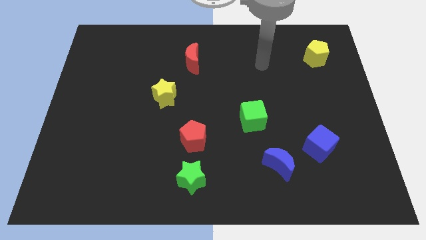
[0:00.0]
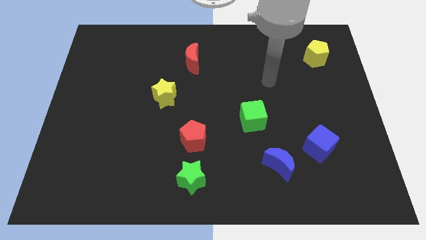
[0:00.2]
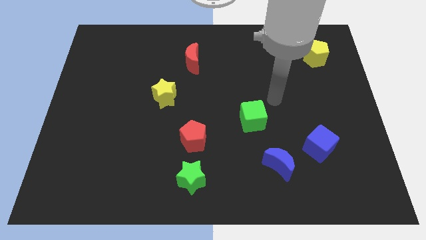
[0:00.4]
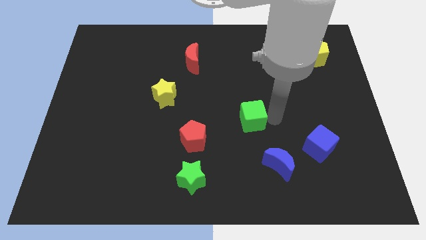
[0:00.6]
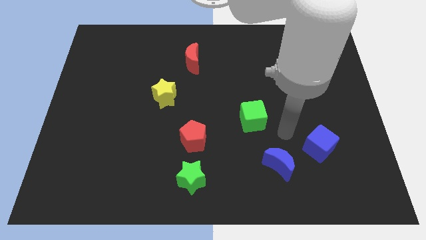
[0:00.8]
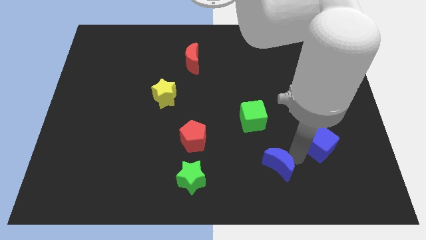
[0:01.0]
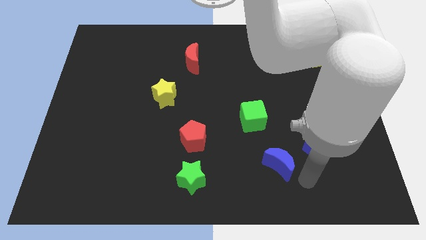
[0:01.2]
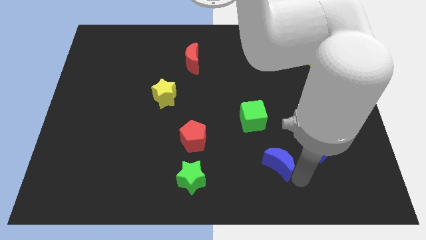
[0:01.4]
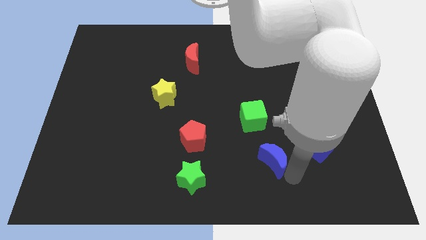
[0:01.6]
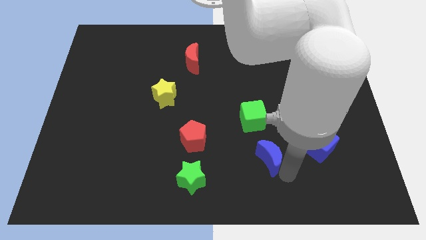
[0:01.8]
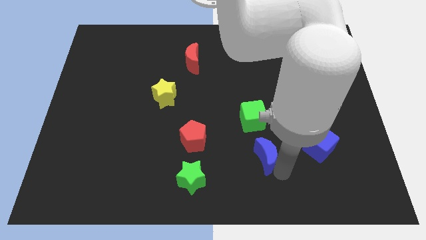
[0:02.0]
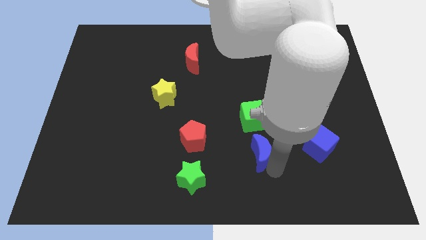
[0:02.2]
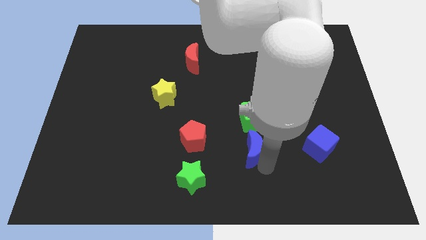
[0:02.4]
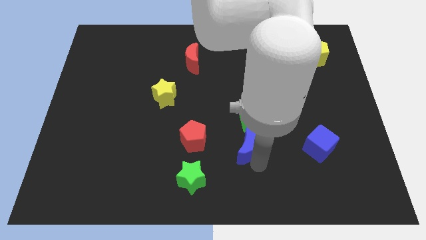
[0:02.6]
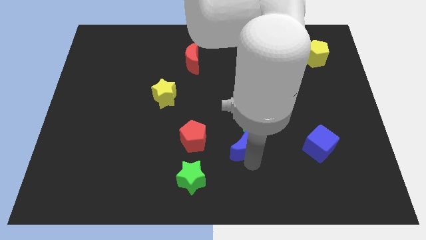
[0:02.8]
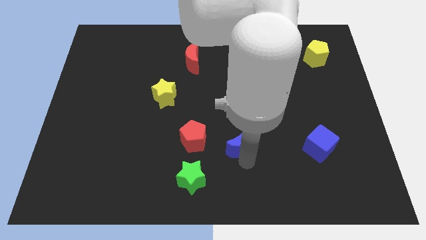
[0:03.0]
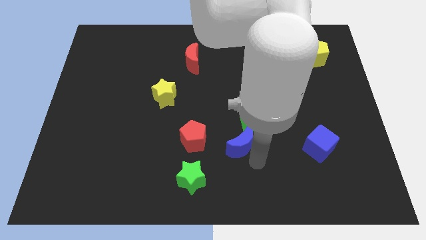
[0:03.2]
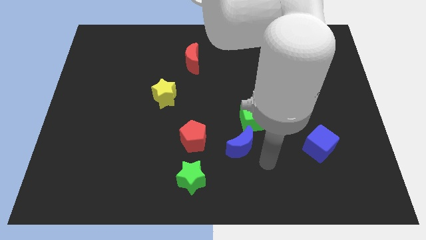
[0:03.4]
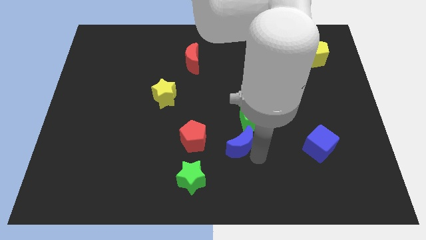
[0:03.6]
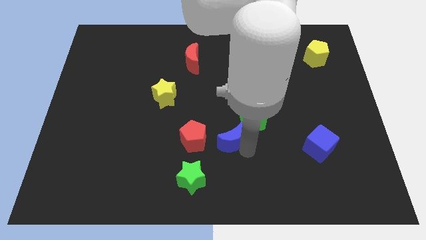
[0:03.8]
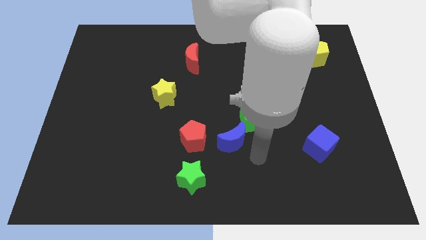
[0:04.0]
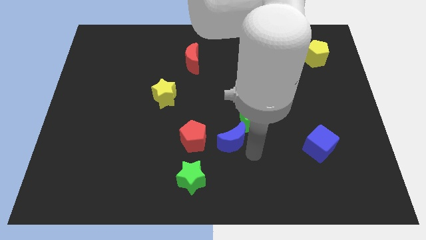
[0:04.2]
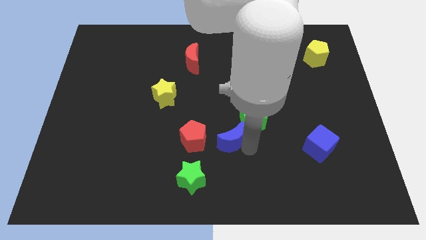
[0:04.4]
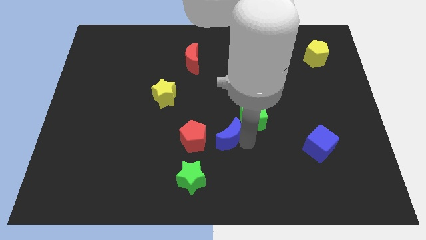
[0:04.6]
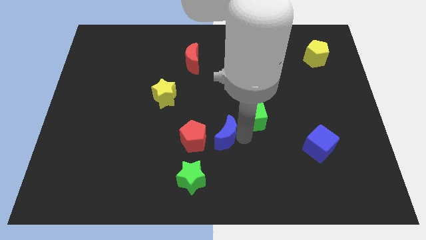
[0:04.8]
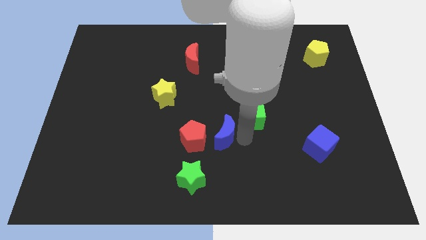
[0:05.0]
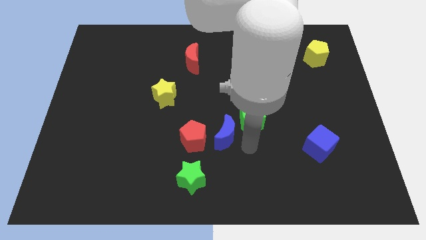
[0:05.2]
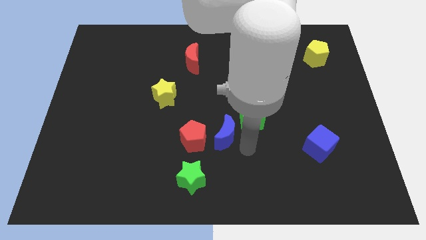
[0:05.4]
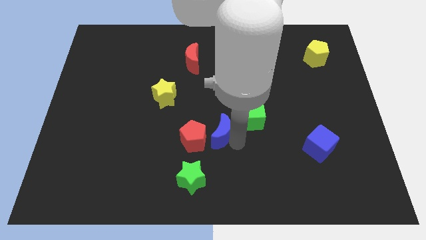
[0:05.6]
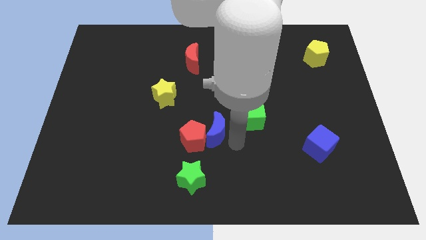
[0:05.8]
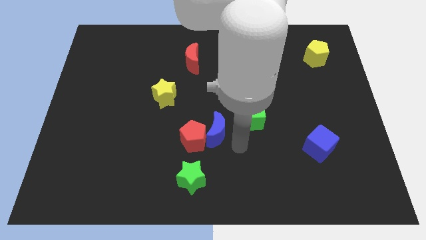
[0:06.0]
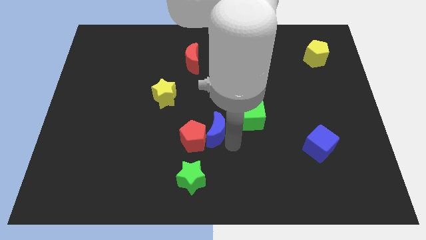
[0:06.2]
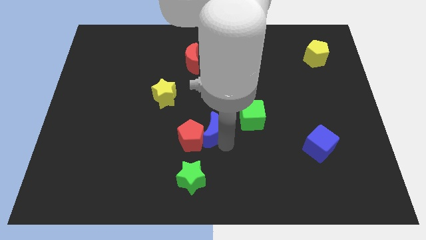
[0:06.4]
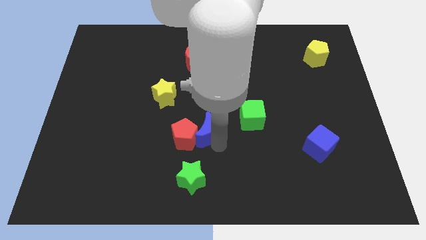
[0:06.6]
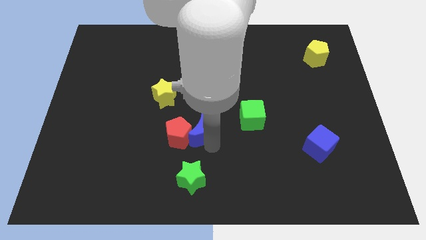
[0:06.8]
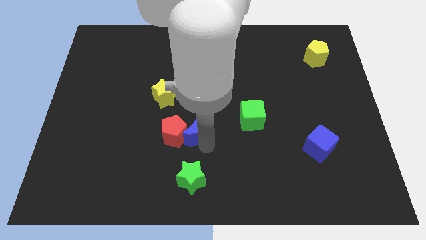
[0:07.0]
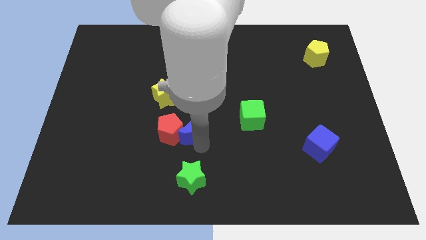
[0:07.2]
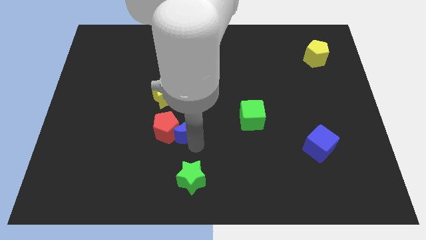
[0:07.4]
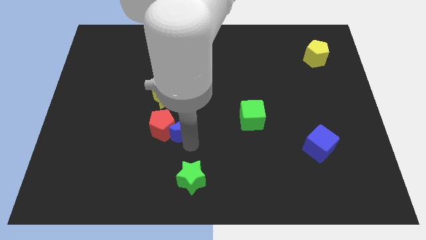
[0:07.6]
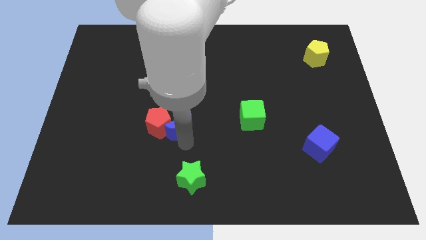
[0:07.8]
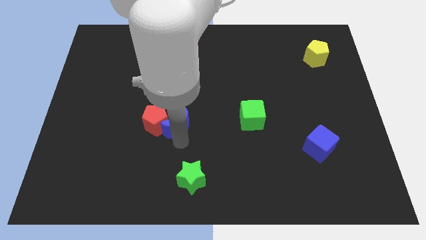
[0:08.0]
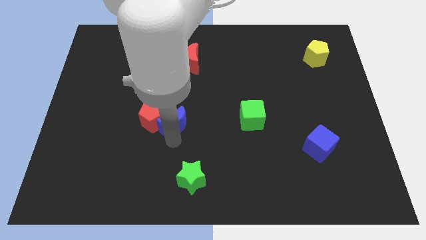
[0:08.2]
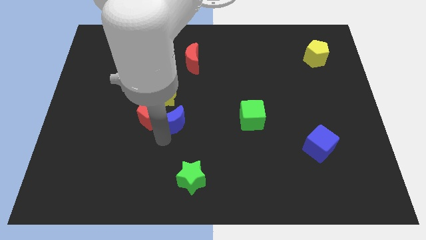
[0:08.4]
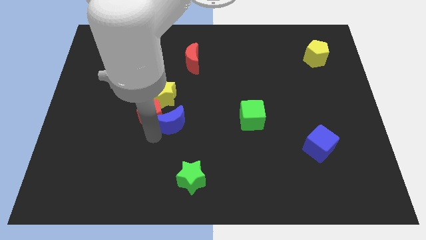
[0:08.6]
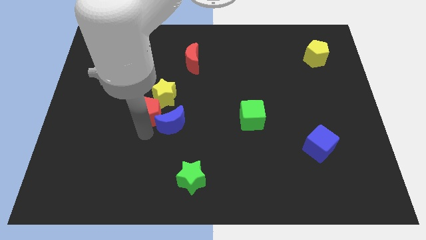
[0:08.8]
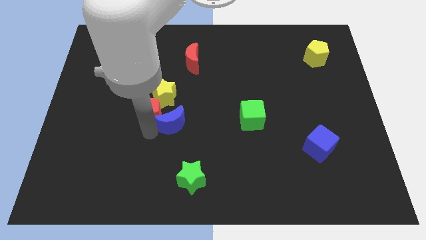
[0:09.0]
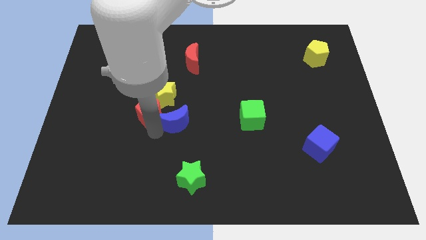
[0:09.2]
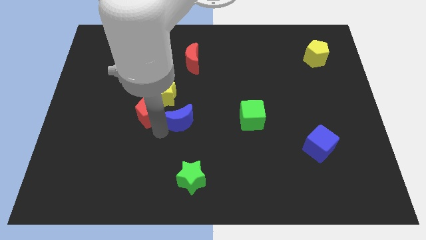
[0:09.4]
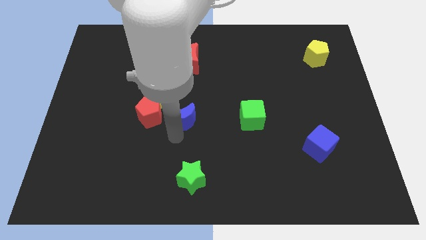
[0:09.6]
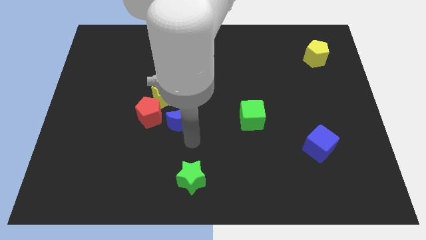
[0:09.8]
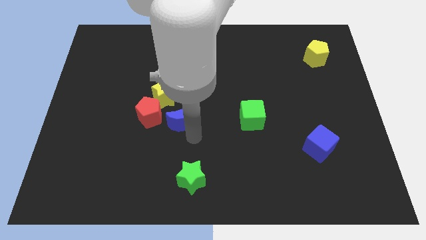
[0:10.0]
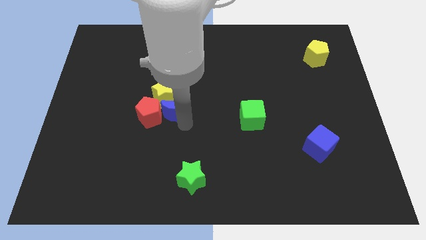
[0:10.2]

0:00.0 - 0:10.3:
push the blue moon next to the yellow star

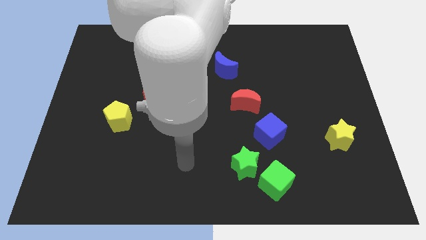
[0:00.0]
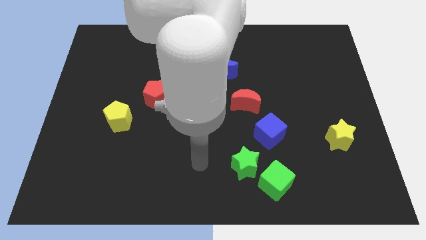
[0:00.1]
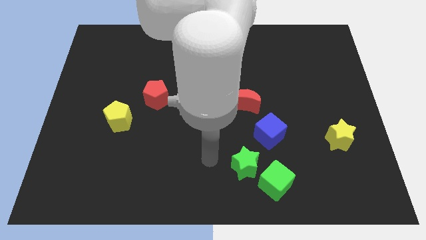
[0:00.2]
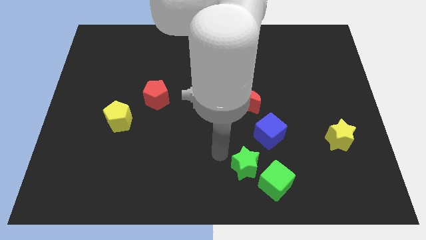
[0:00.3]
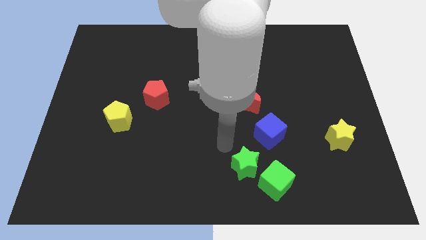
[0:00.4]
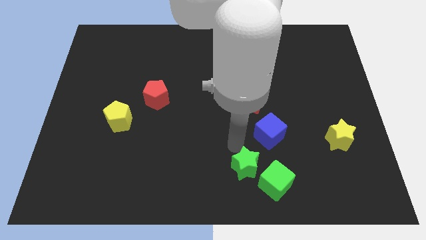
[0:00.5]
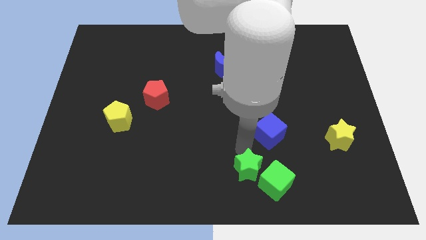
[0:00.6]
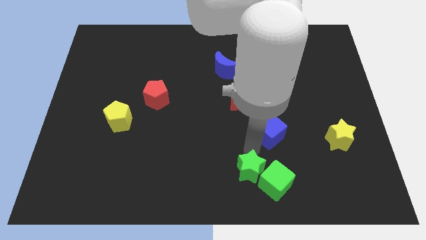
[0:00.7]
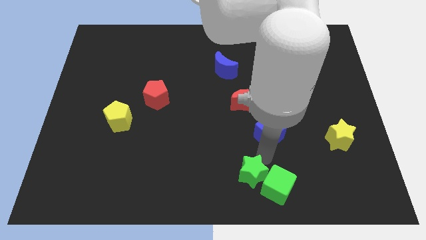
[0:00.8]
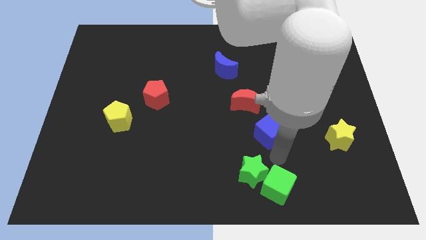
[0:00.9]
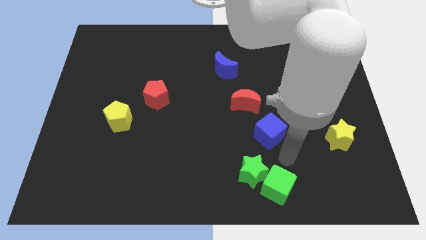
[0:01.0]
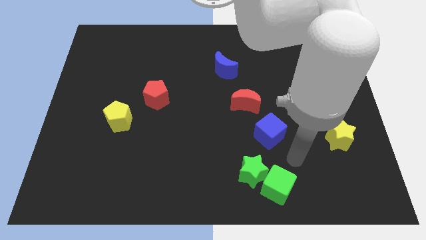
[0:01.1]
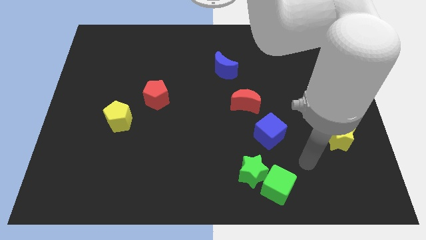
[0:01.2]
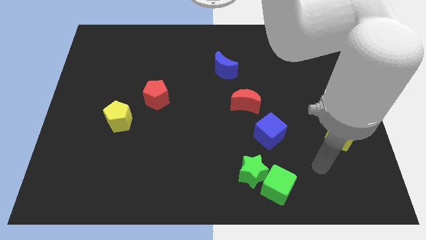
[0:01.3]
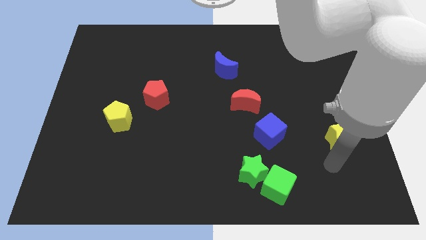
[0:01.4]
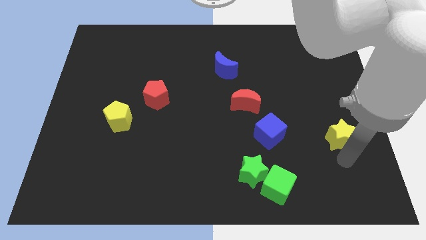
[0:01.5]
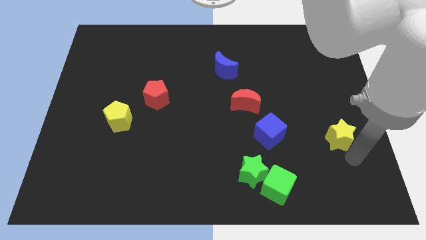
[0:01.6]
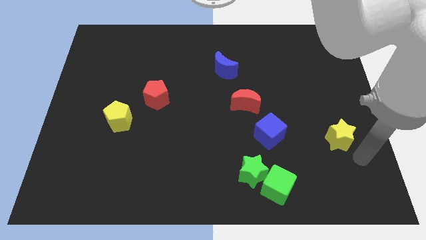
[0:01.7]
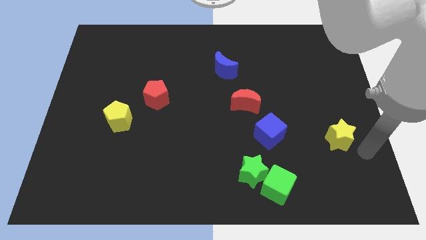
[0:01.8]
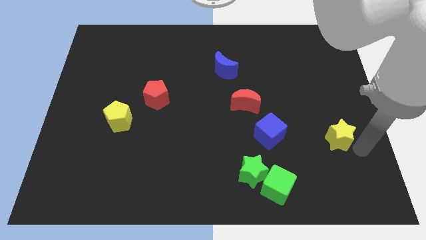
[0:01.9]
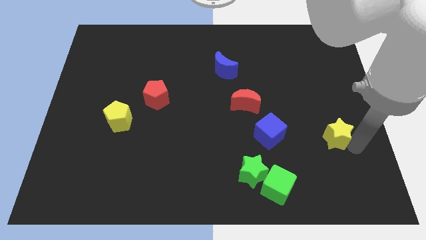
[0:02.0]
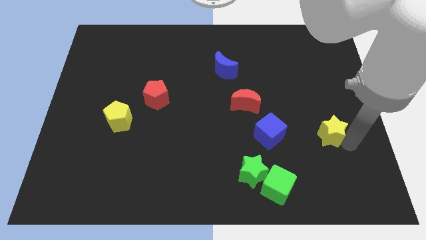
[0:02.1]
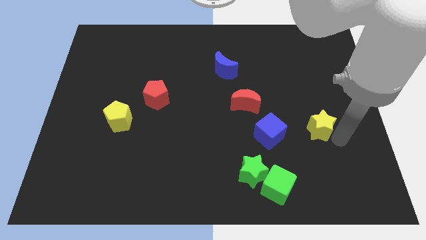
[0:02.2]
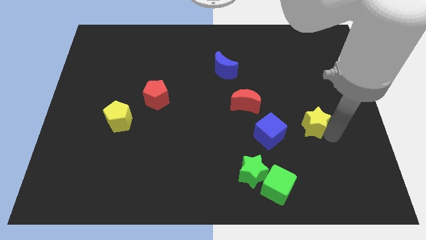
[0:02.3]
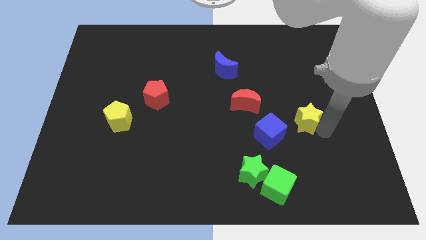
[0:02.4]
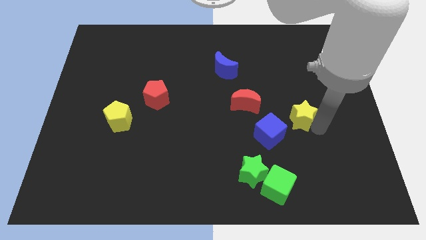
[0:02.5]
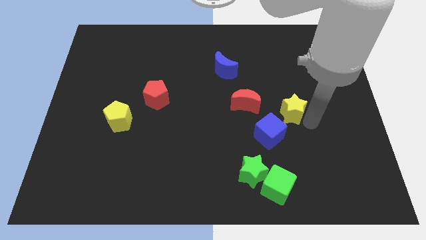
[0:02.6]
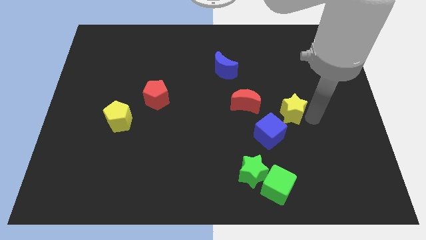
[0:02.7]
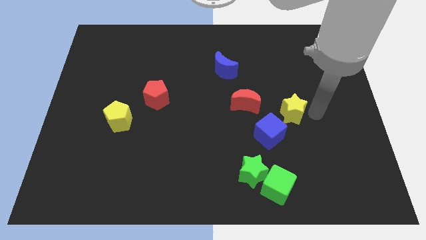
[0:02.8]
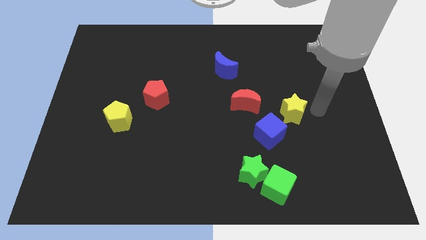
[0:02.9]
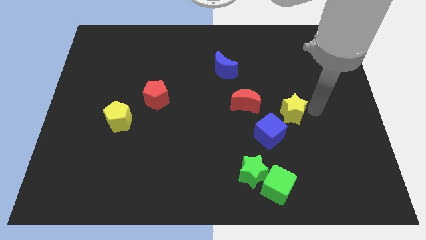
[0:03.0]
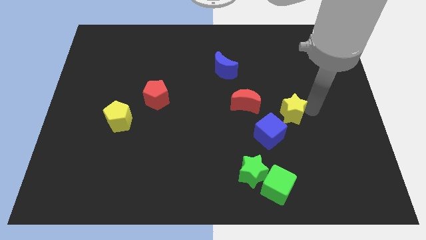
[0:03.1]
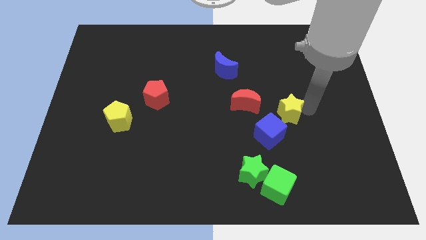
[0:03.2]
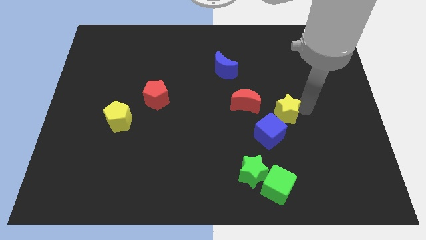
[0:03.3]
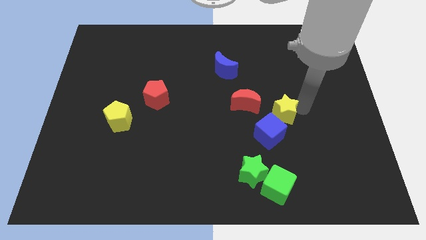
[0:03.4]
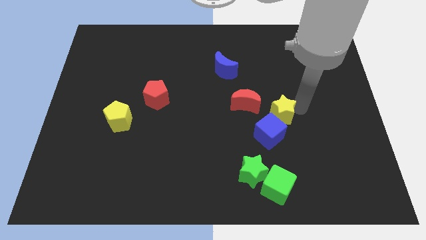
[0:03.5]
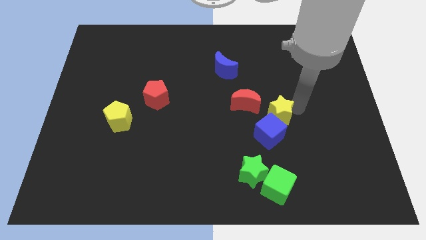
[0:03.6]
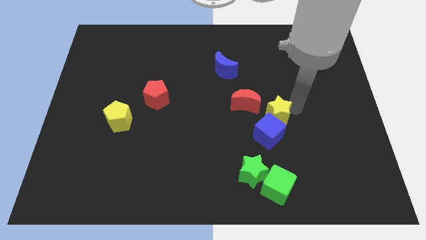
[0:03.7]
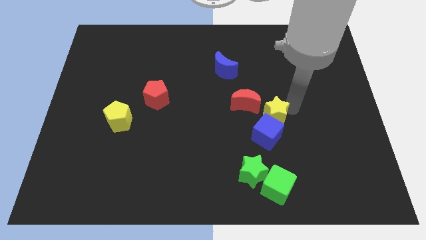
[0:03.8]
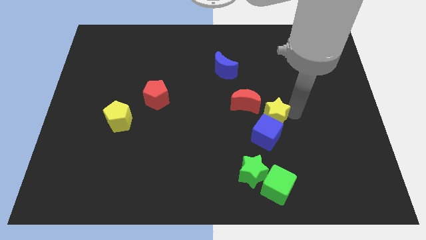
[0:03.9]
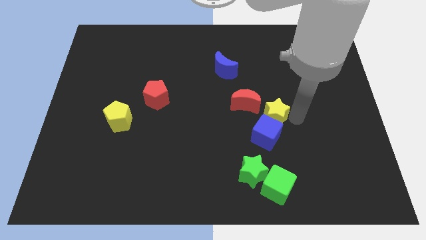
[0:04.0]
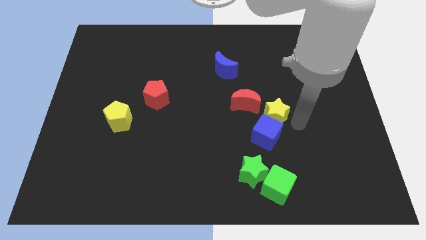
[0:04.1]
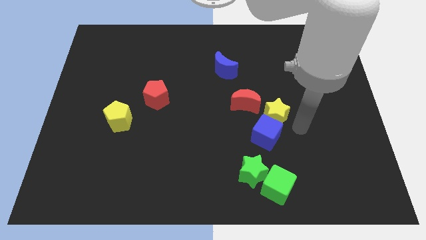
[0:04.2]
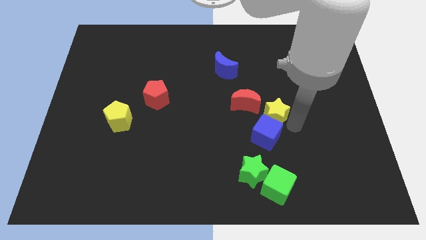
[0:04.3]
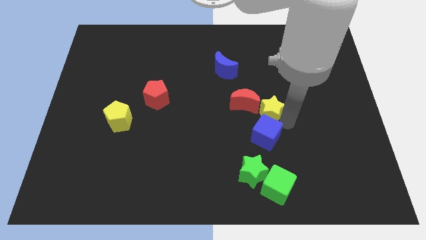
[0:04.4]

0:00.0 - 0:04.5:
put the yellow star close to the red moon
